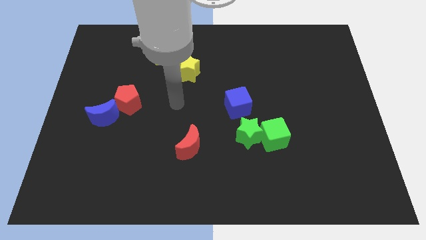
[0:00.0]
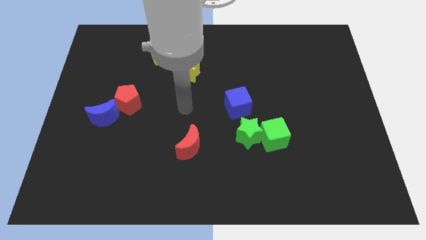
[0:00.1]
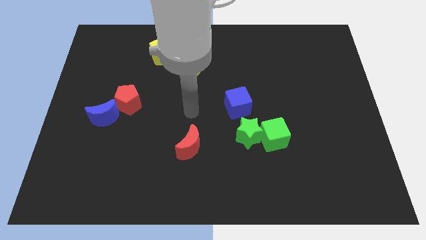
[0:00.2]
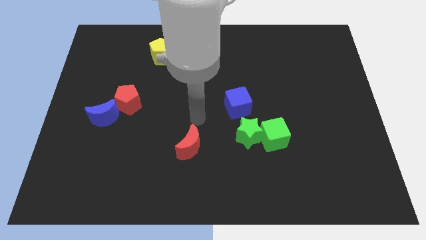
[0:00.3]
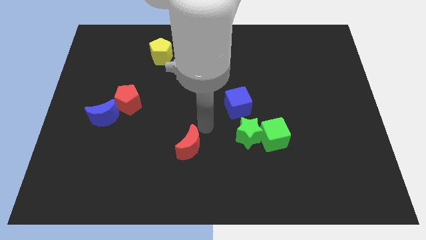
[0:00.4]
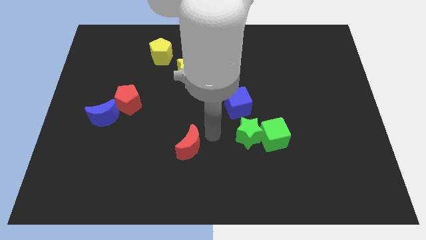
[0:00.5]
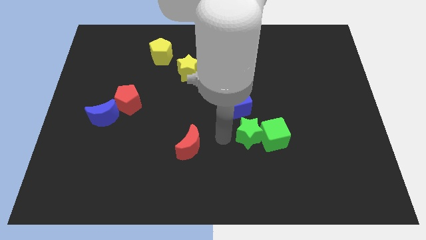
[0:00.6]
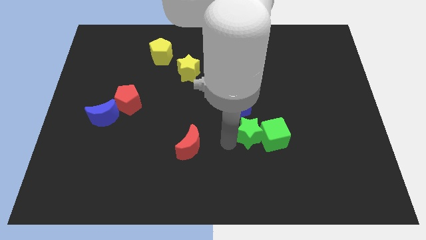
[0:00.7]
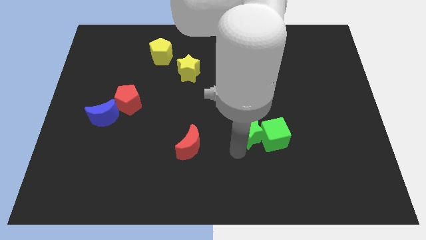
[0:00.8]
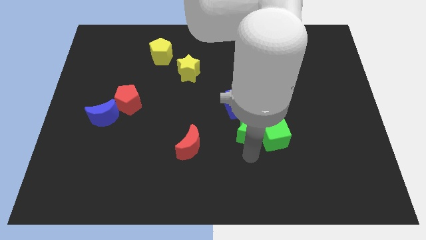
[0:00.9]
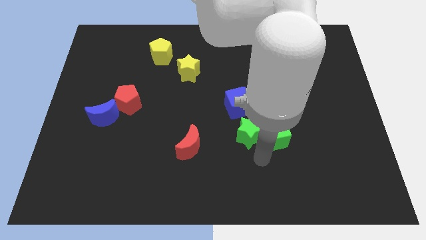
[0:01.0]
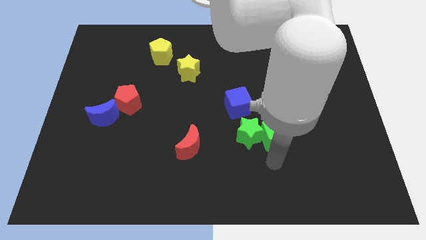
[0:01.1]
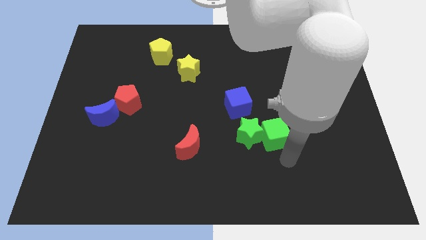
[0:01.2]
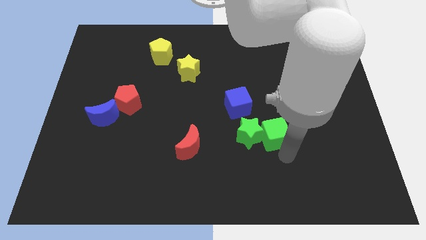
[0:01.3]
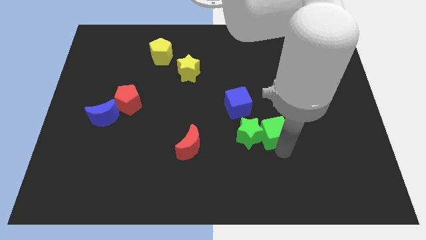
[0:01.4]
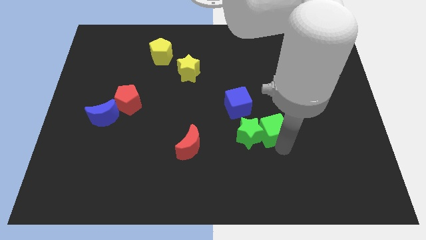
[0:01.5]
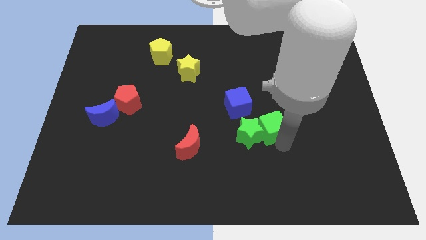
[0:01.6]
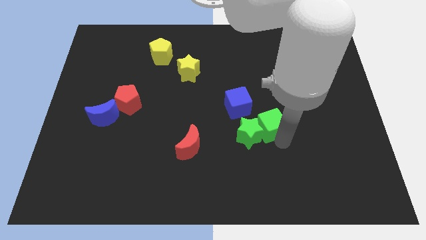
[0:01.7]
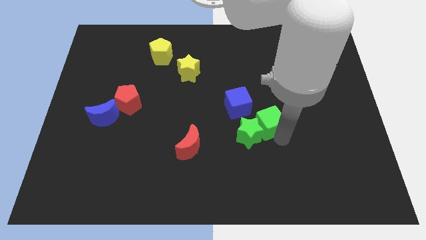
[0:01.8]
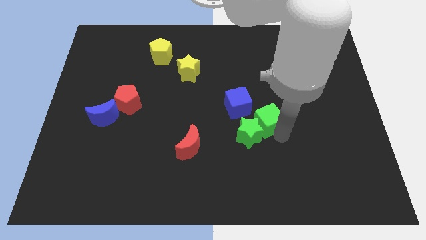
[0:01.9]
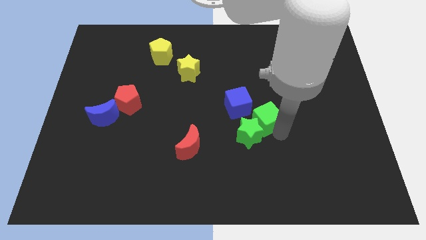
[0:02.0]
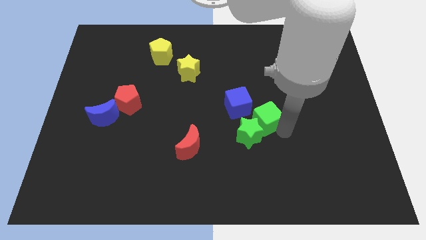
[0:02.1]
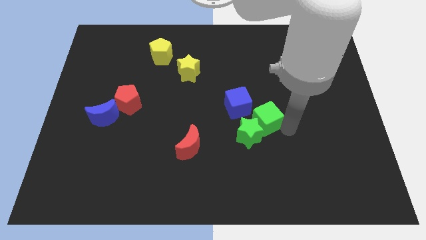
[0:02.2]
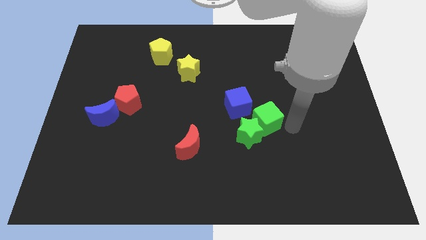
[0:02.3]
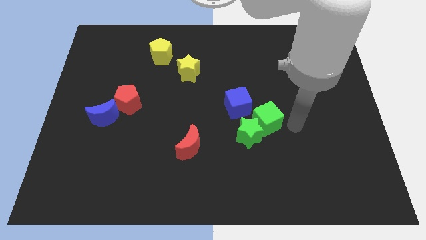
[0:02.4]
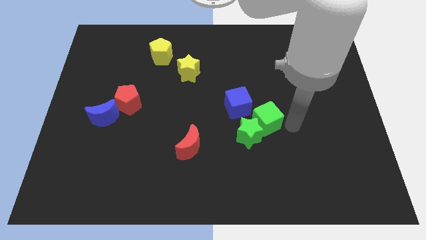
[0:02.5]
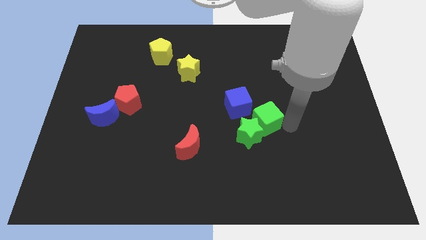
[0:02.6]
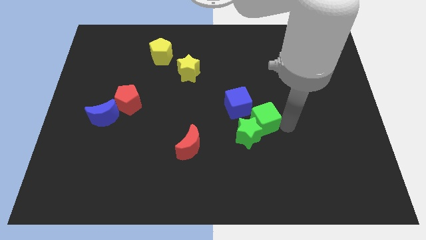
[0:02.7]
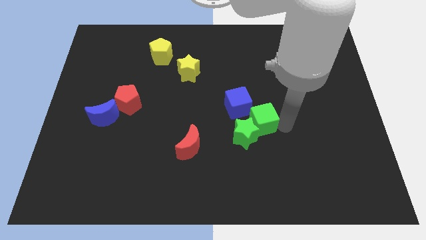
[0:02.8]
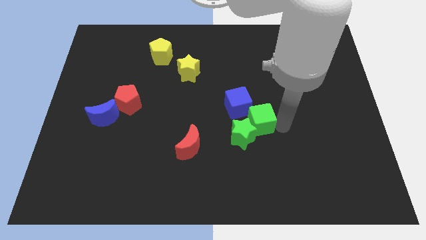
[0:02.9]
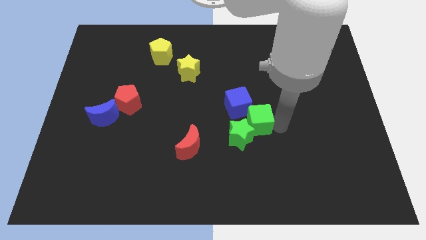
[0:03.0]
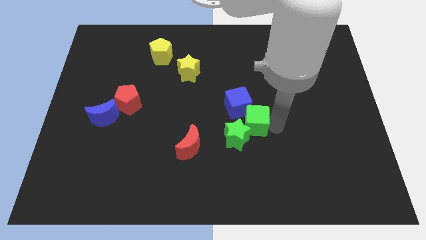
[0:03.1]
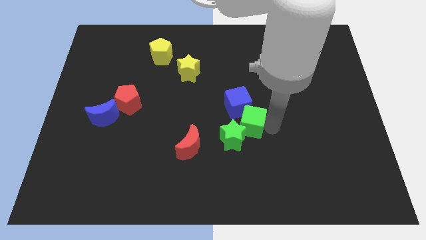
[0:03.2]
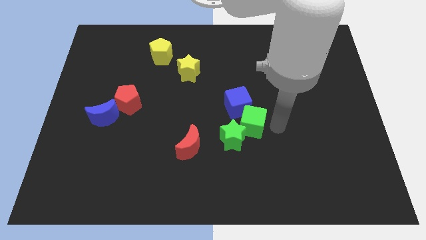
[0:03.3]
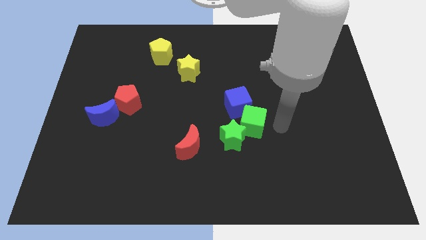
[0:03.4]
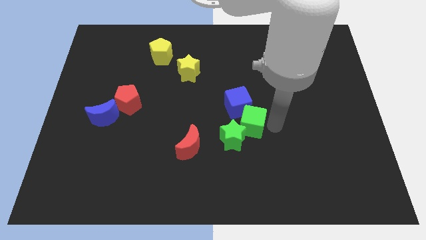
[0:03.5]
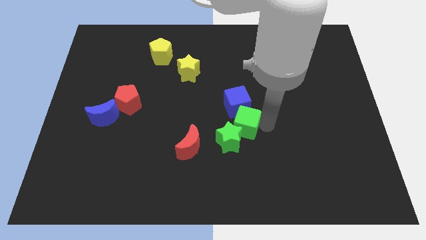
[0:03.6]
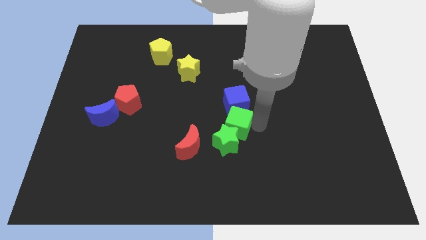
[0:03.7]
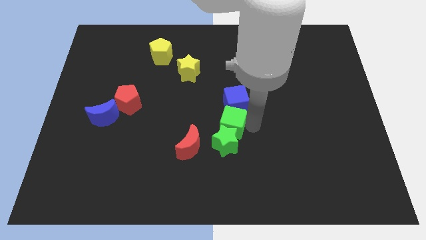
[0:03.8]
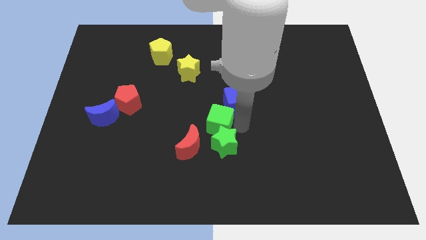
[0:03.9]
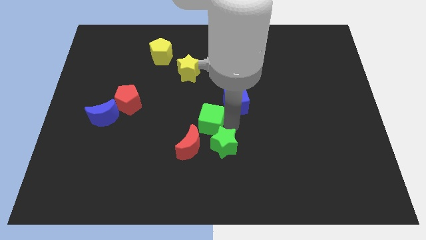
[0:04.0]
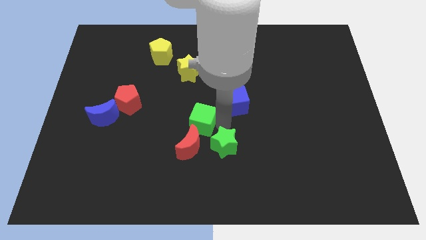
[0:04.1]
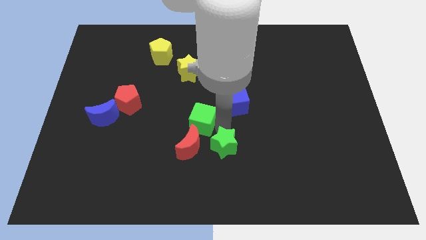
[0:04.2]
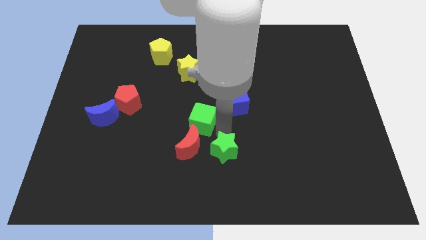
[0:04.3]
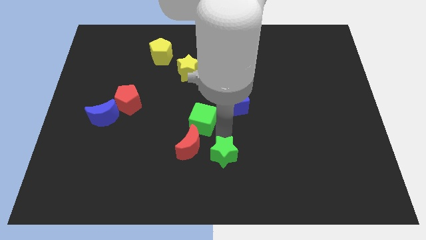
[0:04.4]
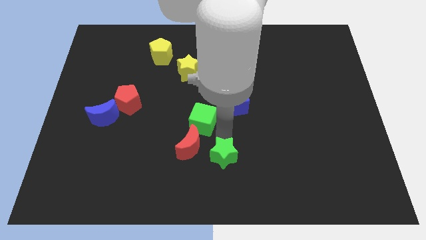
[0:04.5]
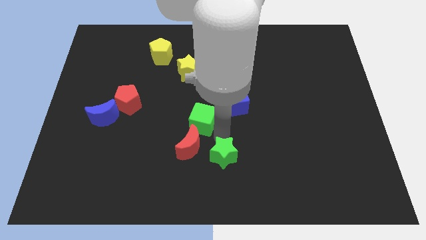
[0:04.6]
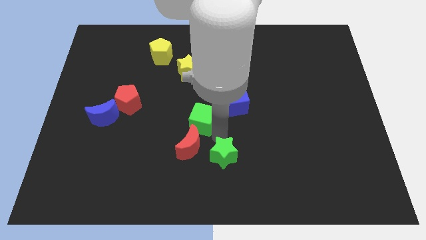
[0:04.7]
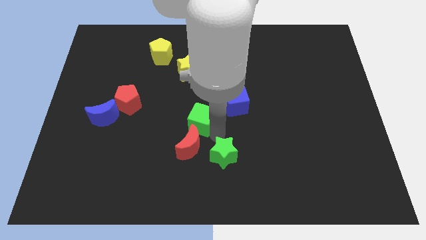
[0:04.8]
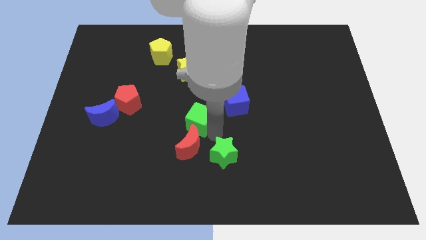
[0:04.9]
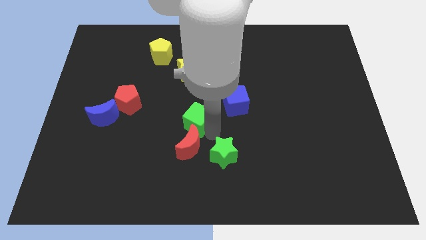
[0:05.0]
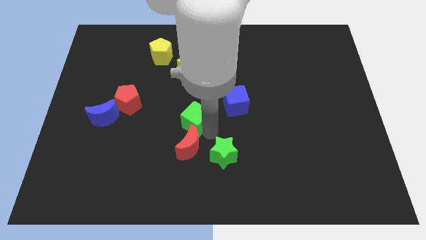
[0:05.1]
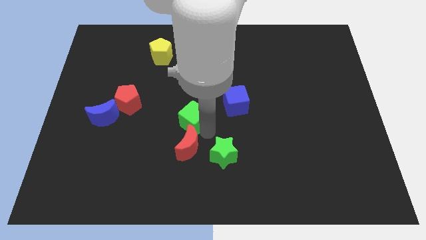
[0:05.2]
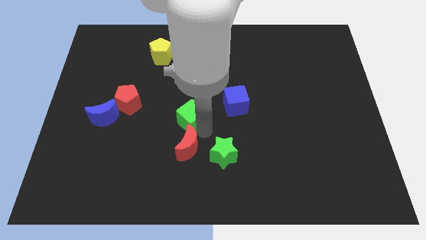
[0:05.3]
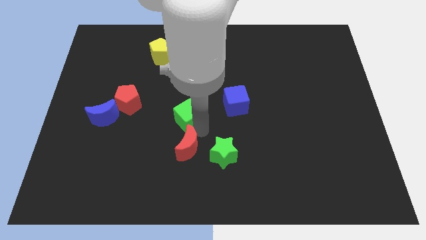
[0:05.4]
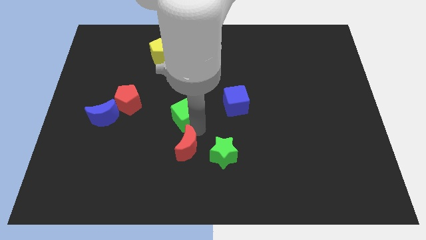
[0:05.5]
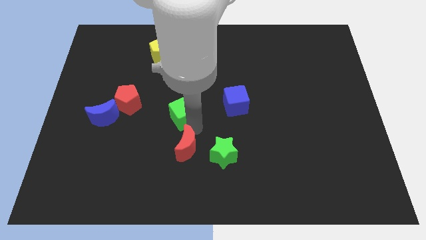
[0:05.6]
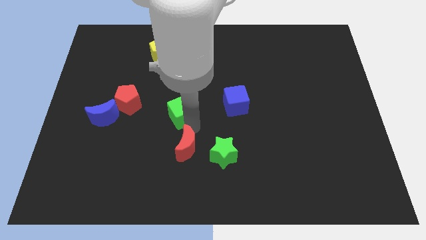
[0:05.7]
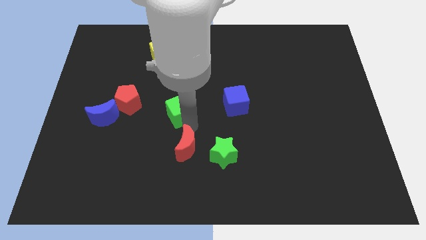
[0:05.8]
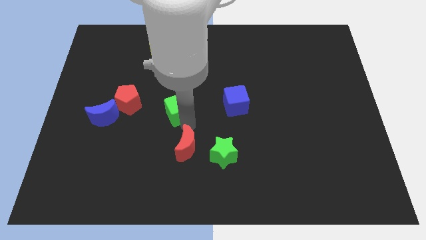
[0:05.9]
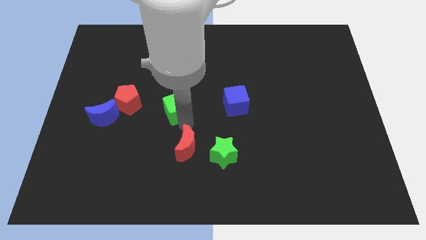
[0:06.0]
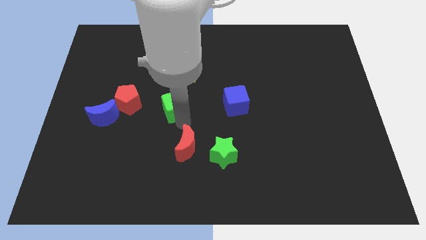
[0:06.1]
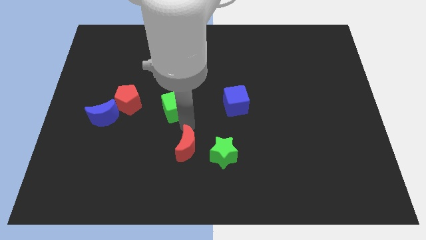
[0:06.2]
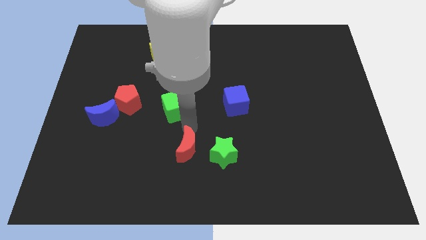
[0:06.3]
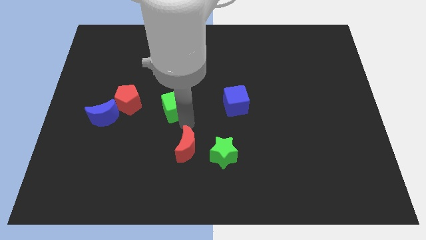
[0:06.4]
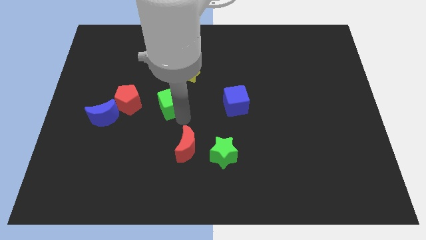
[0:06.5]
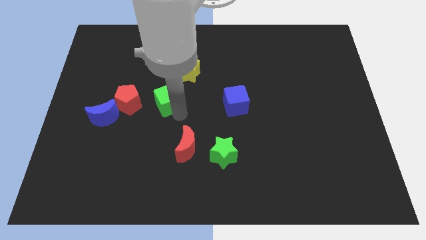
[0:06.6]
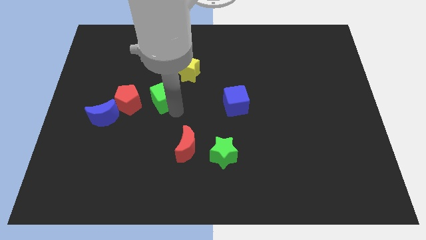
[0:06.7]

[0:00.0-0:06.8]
move the green cube to the bottom of the yellow pentagon
